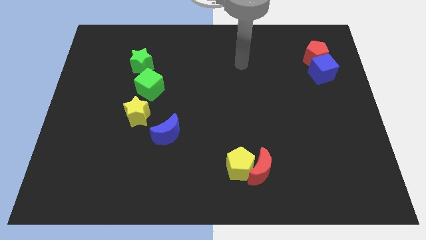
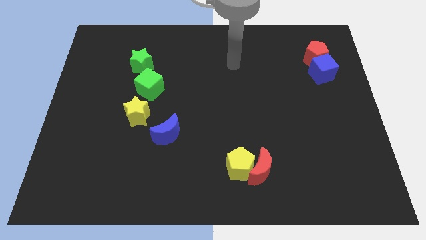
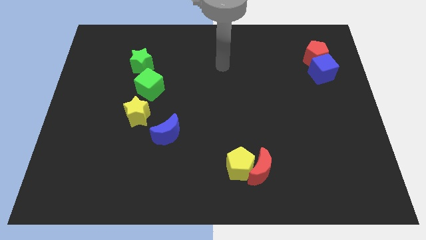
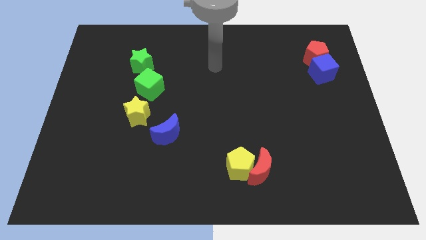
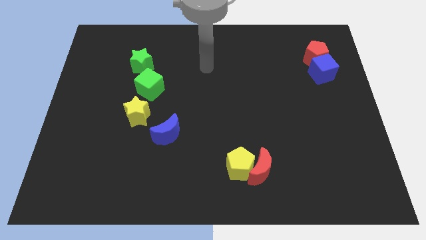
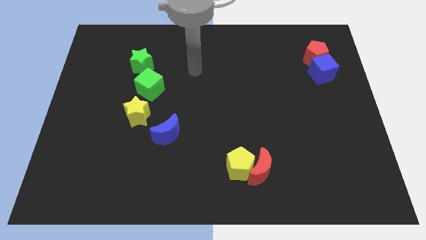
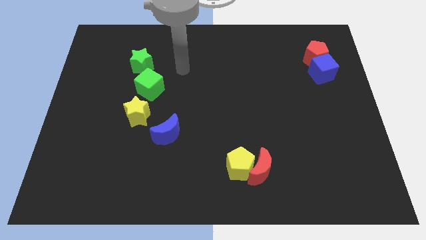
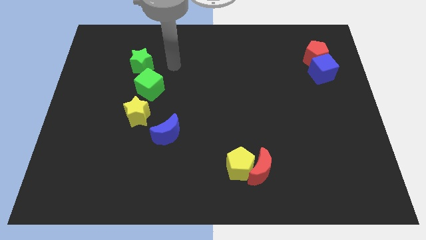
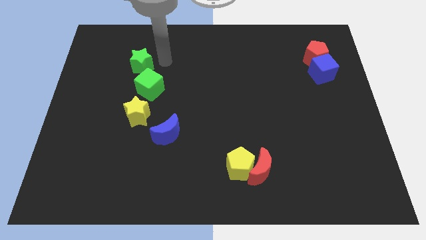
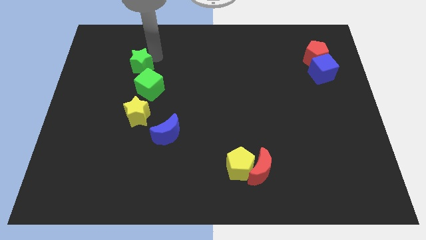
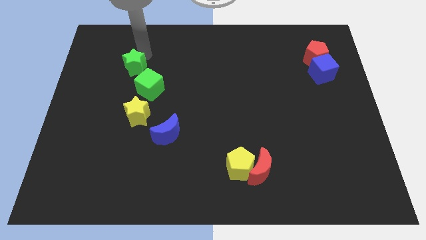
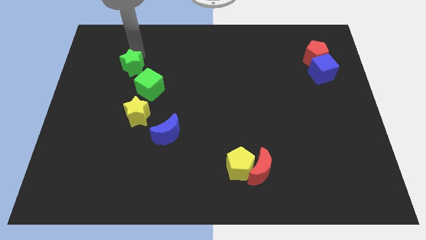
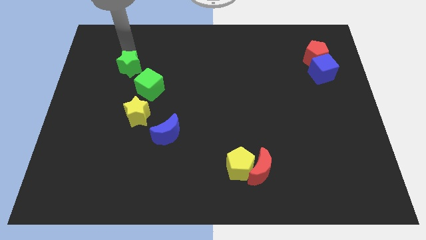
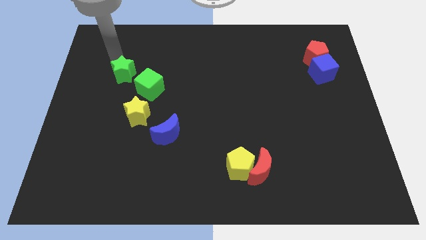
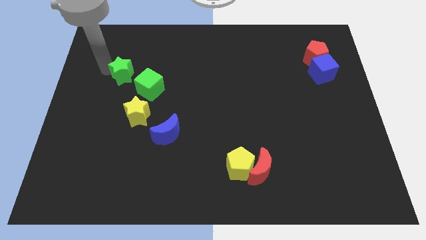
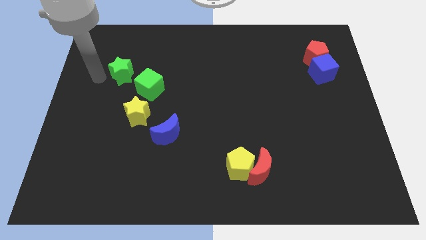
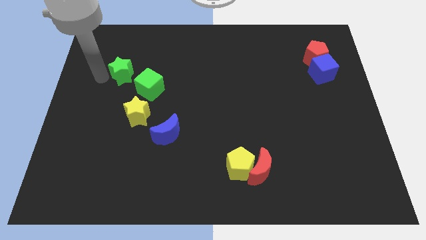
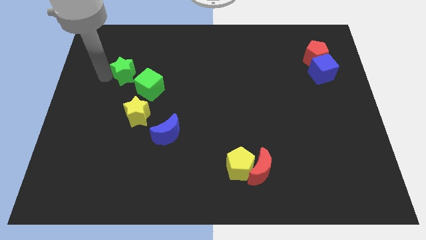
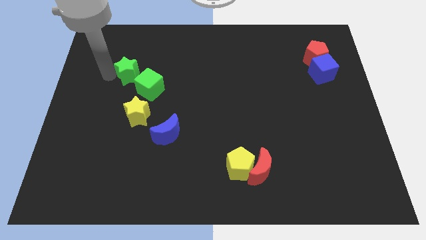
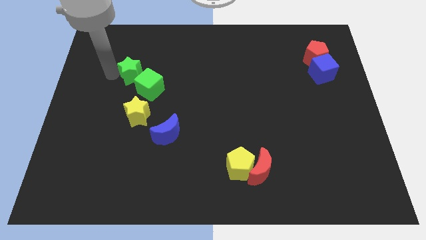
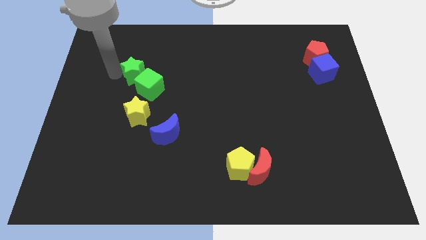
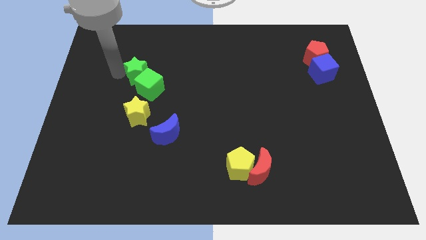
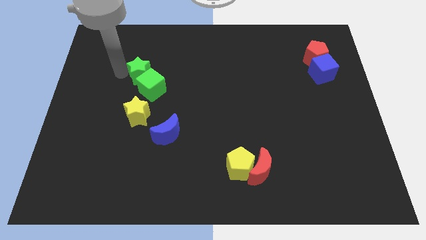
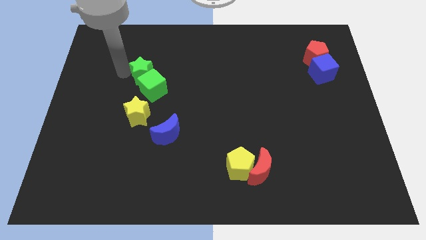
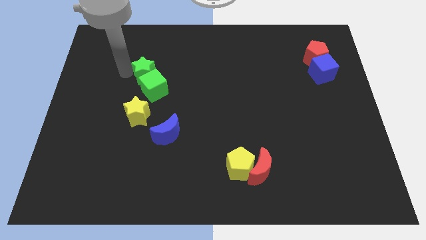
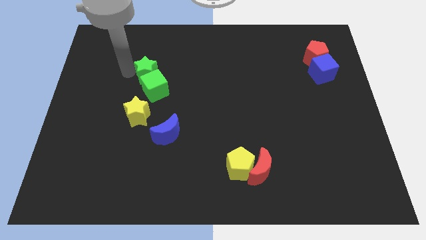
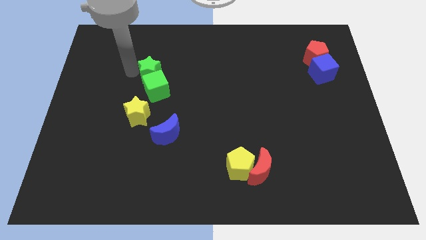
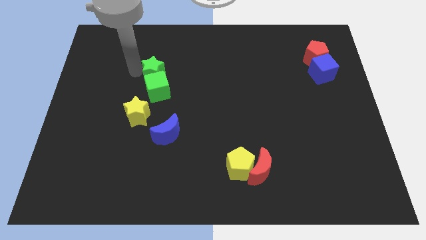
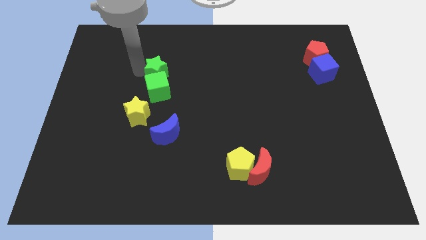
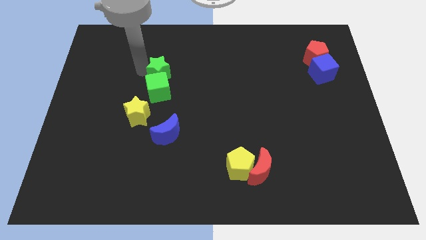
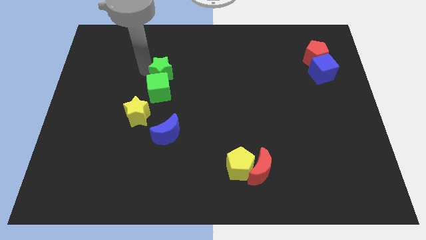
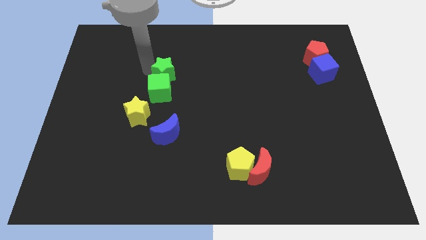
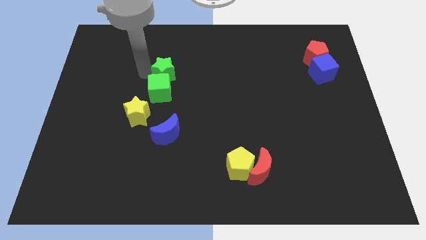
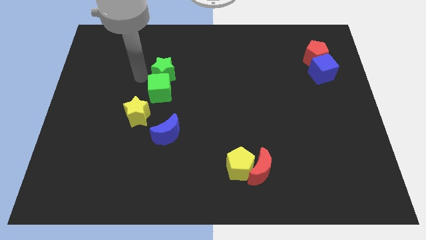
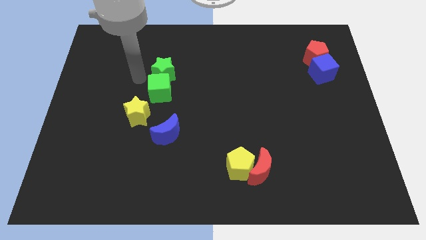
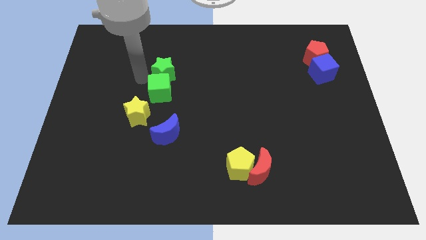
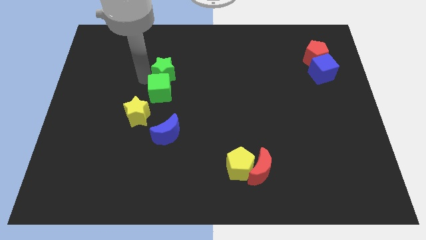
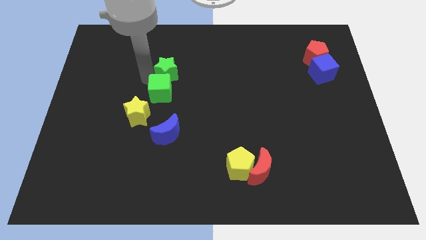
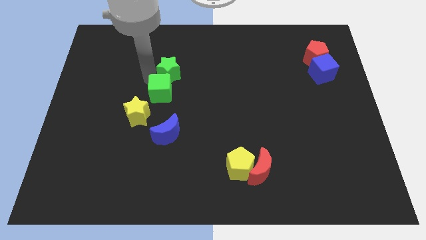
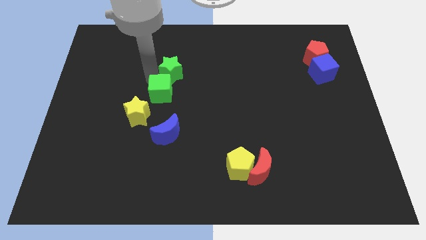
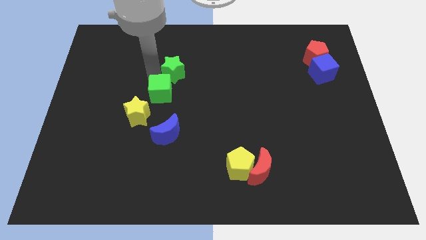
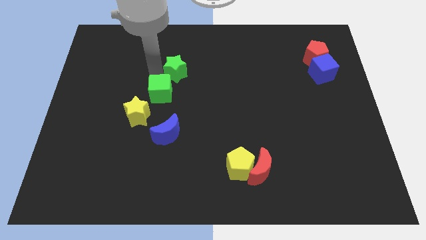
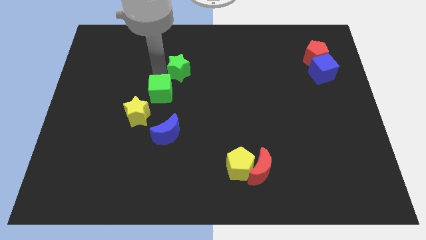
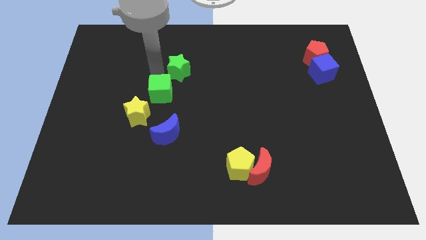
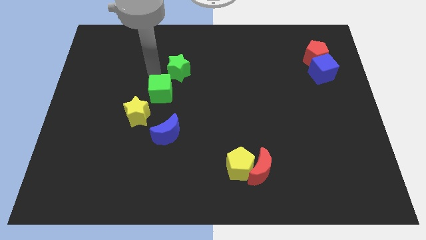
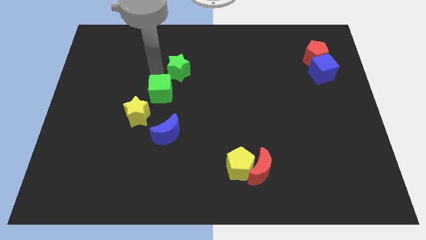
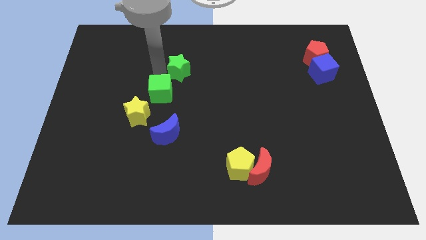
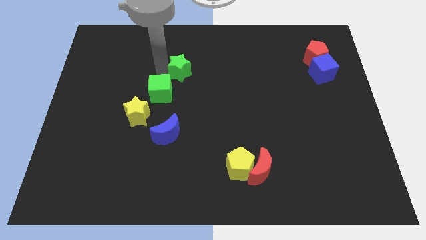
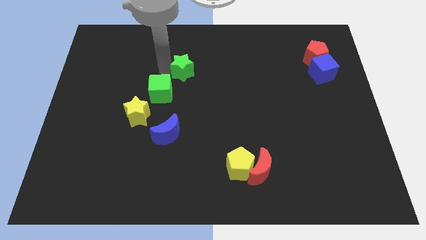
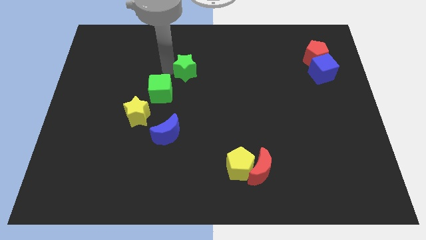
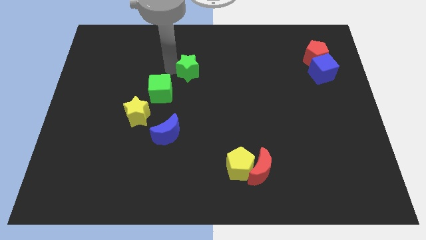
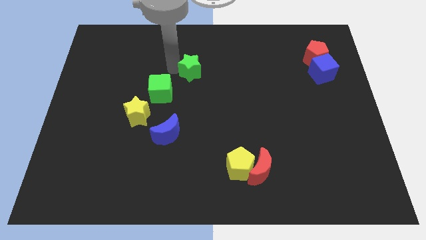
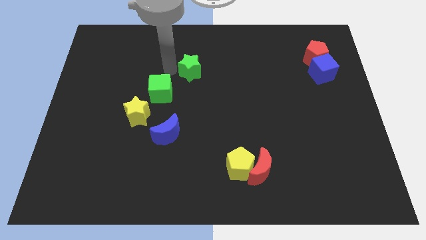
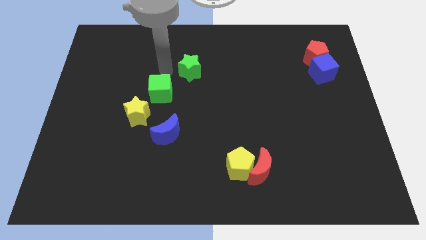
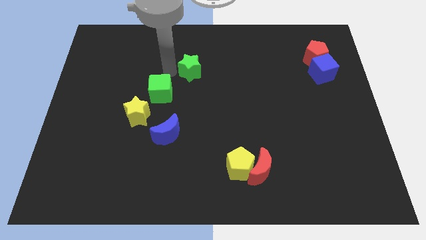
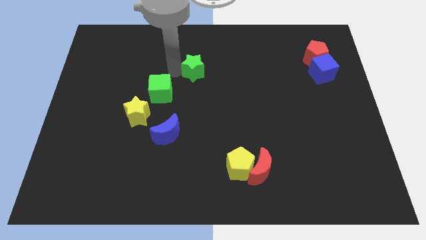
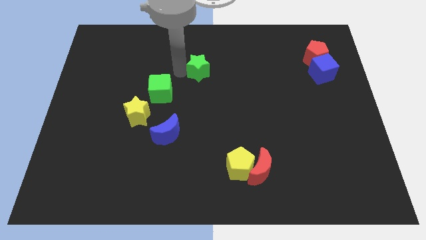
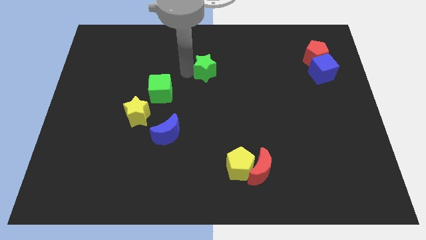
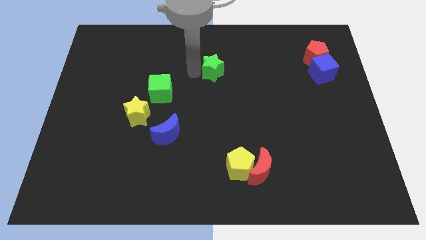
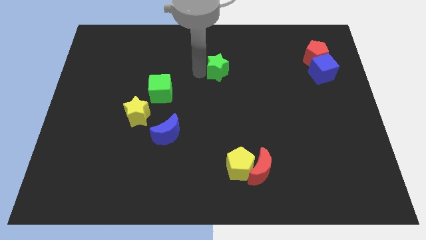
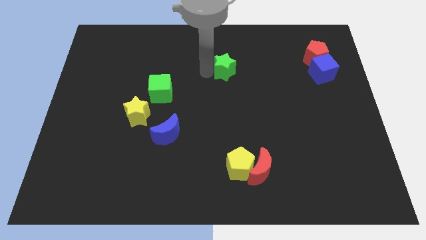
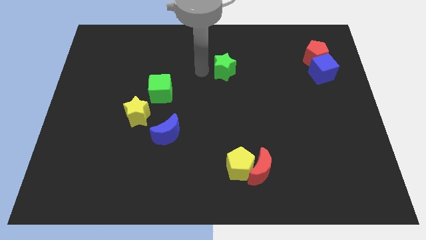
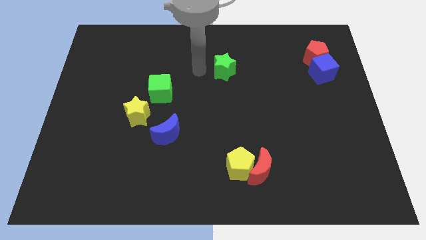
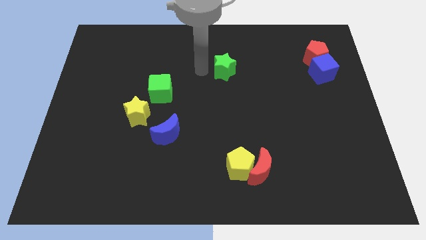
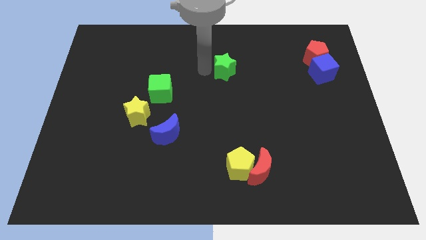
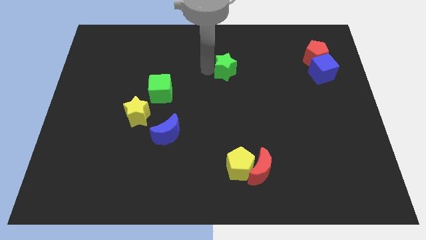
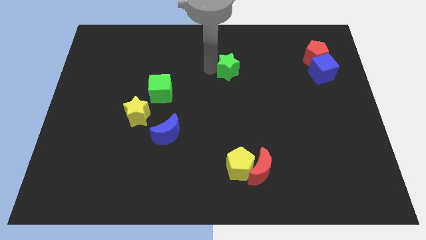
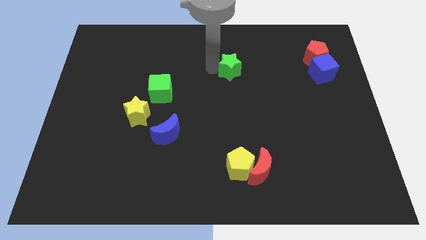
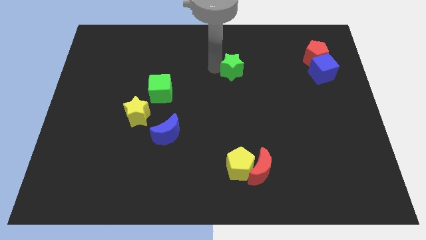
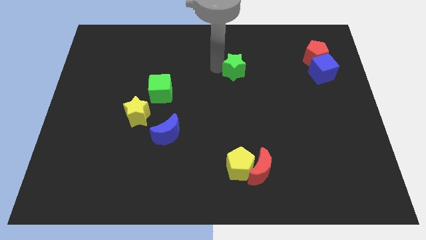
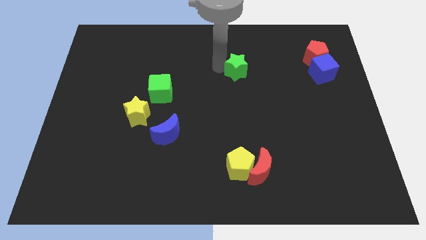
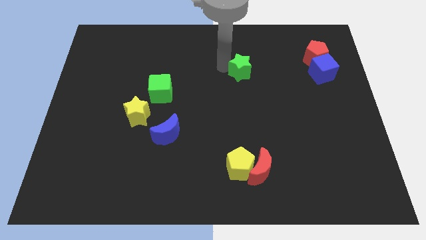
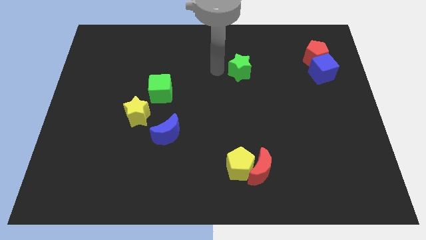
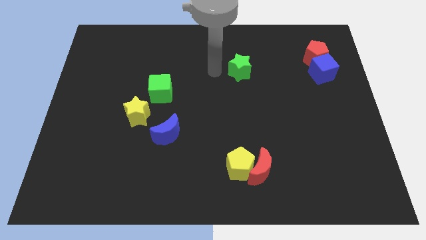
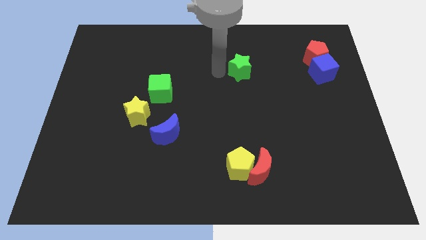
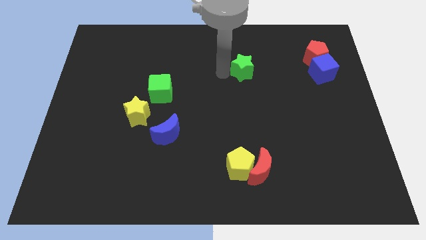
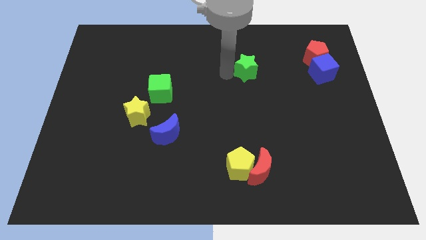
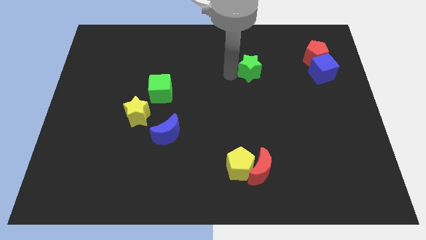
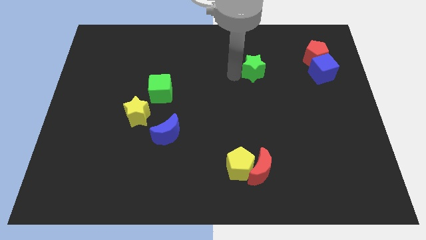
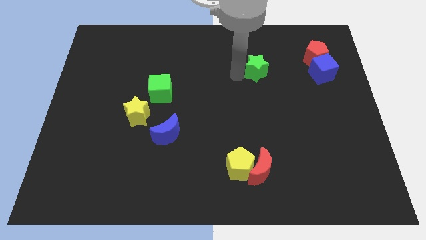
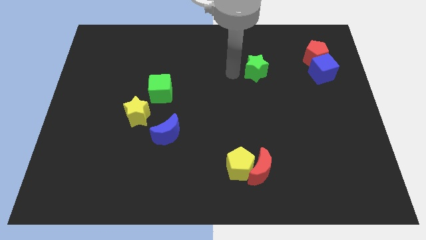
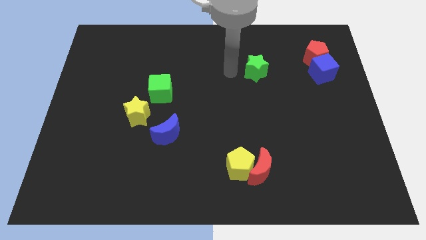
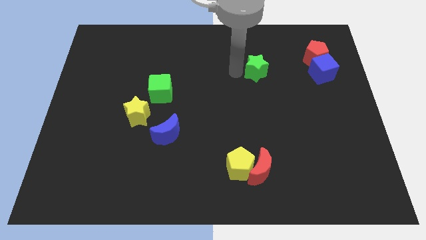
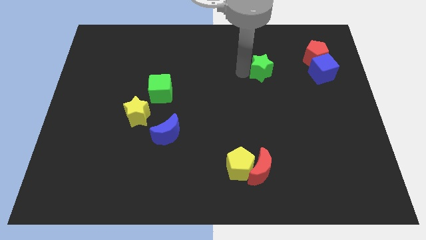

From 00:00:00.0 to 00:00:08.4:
move the green star just left of the blue cube
